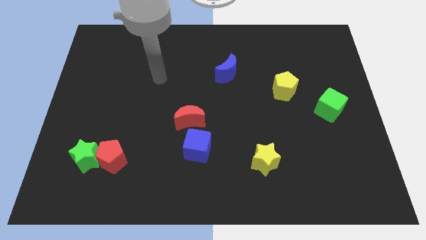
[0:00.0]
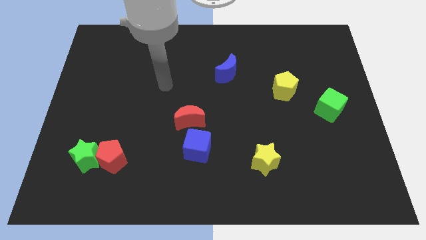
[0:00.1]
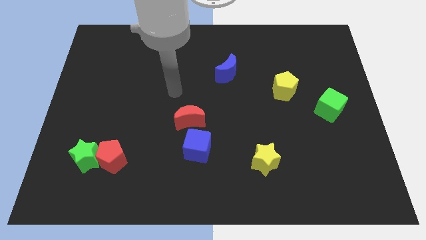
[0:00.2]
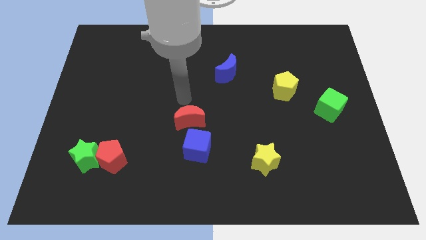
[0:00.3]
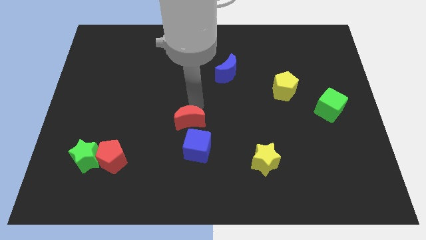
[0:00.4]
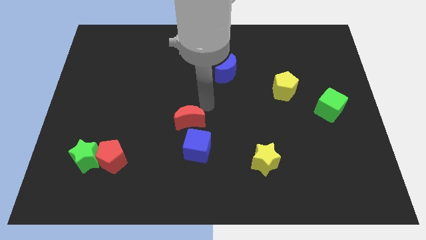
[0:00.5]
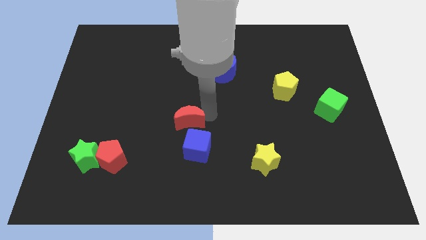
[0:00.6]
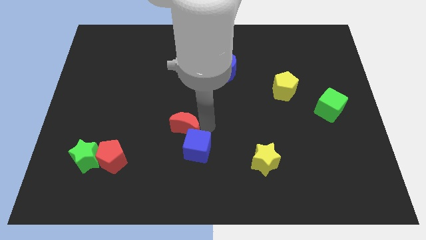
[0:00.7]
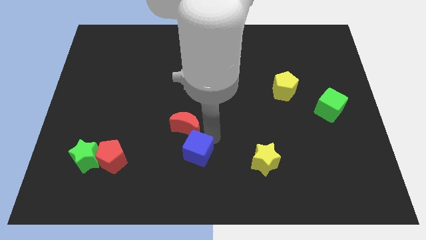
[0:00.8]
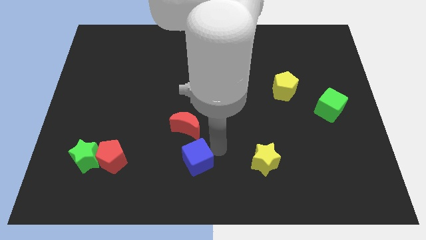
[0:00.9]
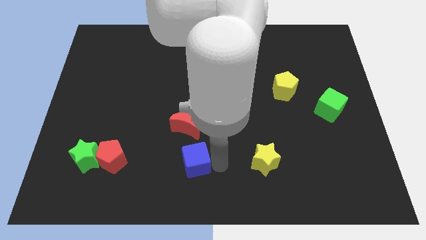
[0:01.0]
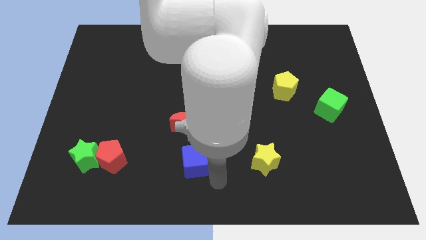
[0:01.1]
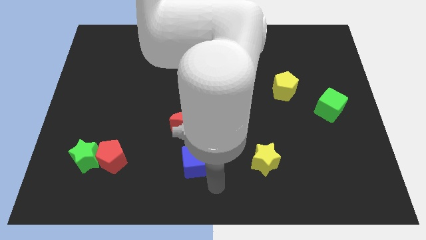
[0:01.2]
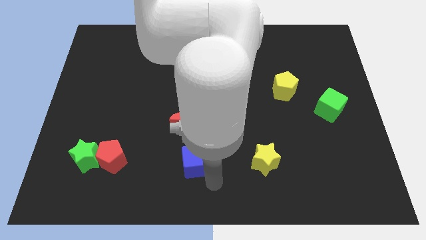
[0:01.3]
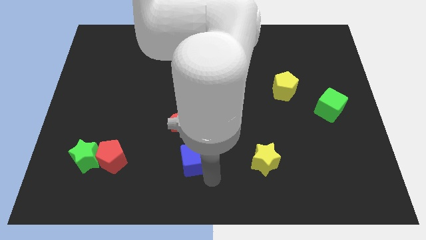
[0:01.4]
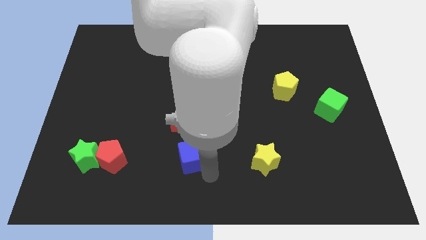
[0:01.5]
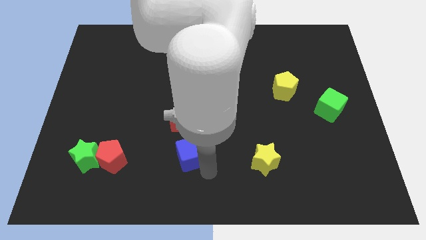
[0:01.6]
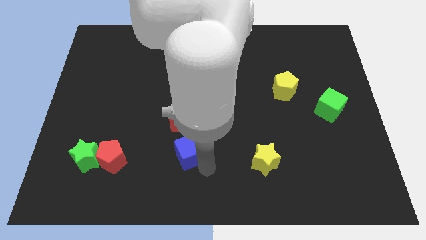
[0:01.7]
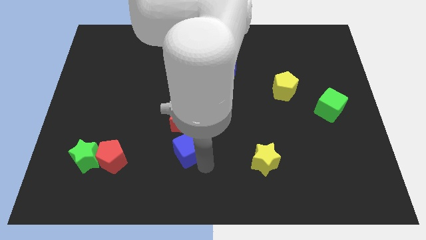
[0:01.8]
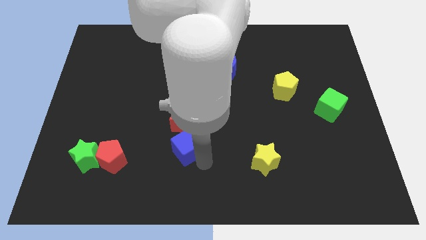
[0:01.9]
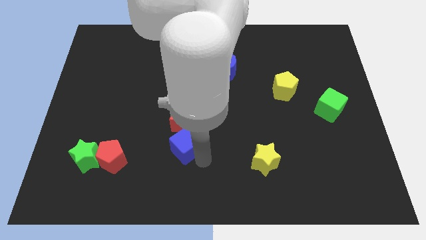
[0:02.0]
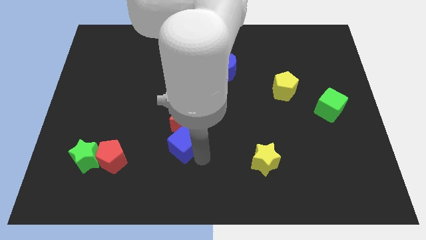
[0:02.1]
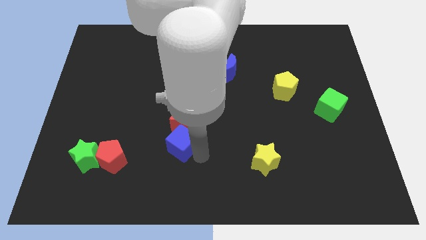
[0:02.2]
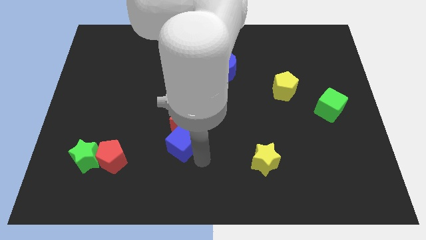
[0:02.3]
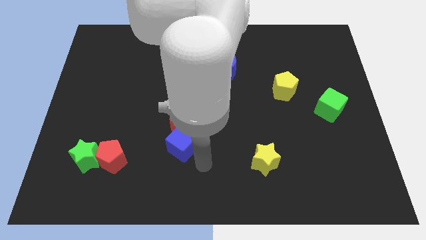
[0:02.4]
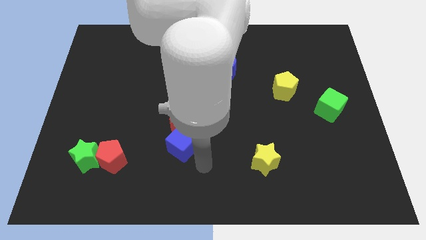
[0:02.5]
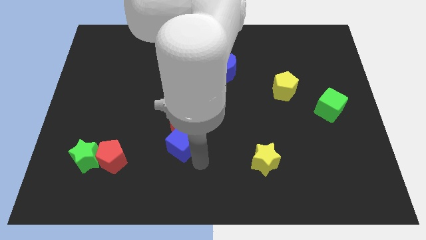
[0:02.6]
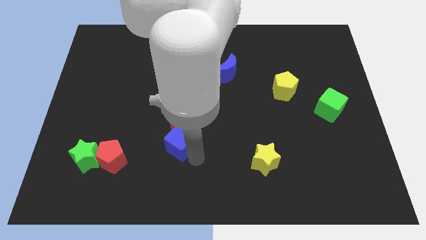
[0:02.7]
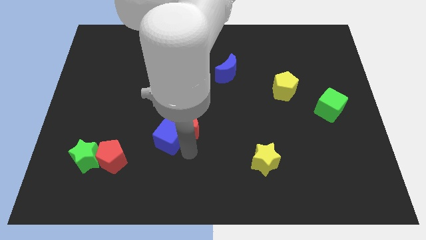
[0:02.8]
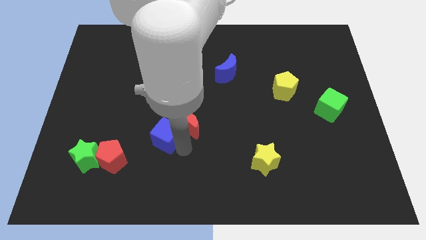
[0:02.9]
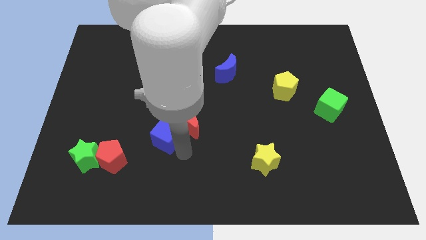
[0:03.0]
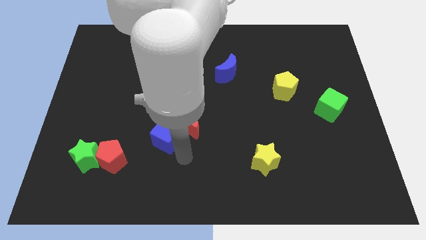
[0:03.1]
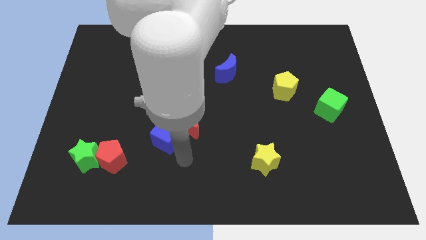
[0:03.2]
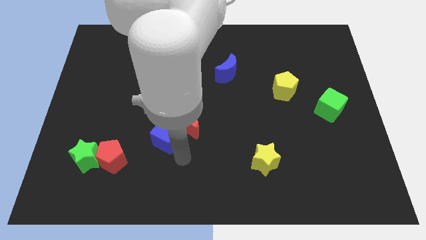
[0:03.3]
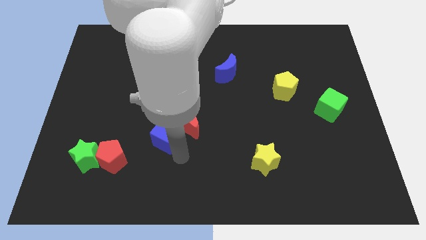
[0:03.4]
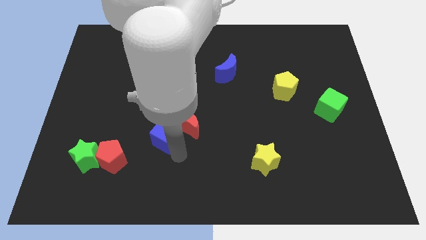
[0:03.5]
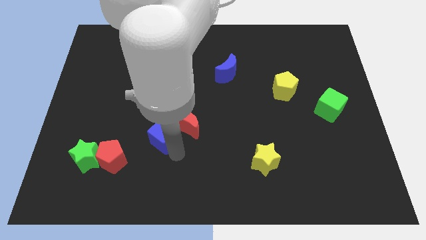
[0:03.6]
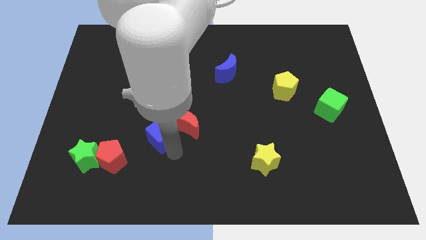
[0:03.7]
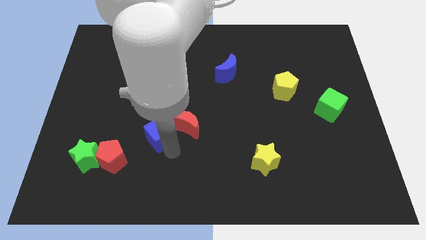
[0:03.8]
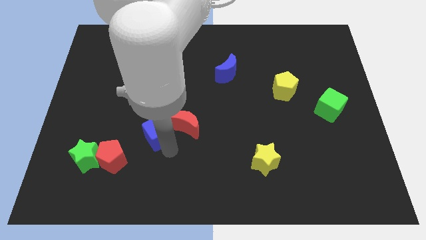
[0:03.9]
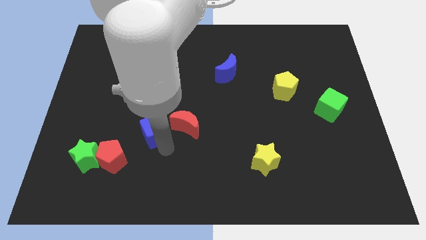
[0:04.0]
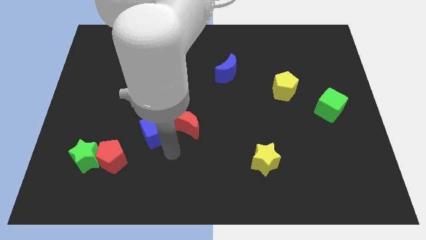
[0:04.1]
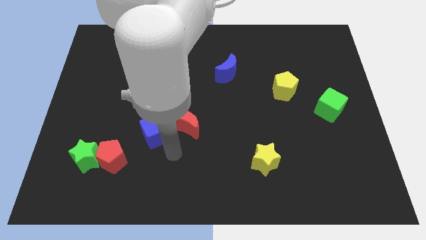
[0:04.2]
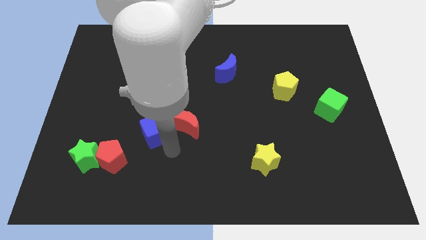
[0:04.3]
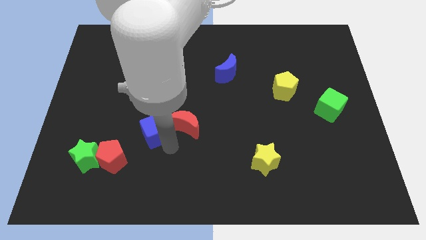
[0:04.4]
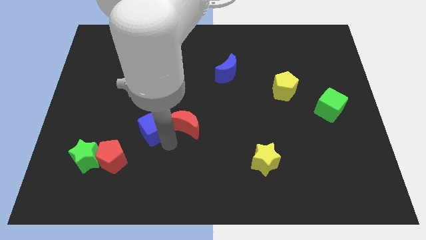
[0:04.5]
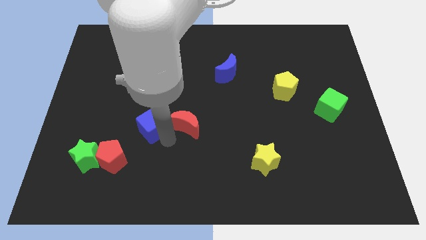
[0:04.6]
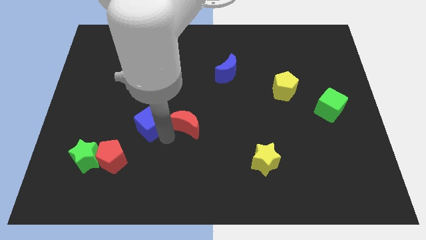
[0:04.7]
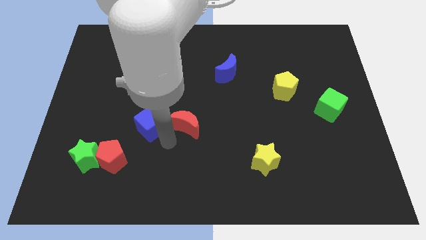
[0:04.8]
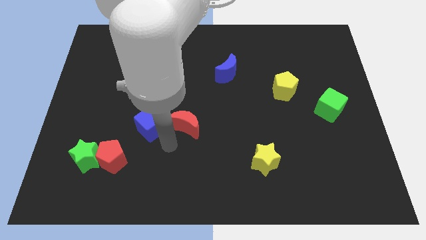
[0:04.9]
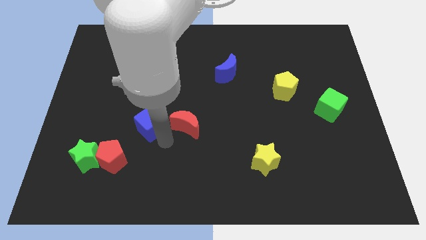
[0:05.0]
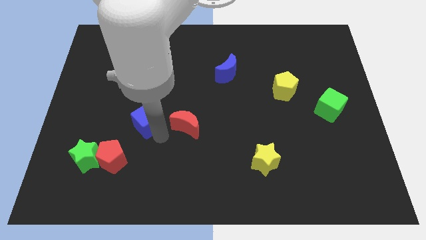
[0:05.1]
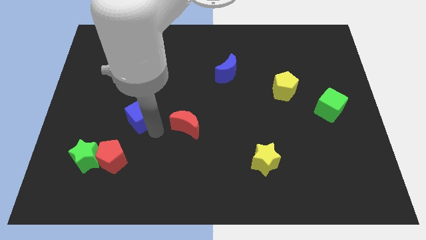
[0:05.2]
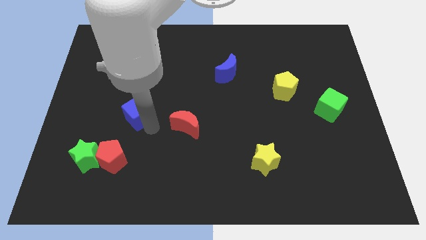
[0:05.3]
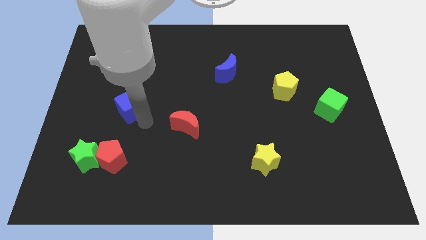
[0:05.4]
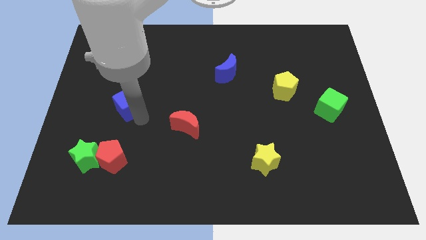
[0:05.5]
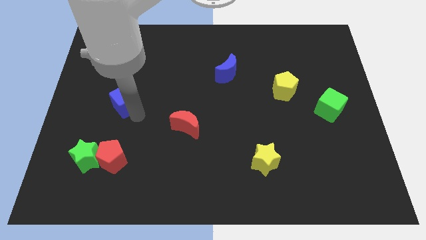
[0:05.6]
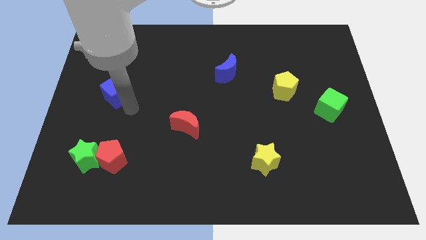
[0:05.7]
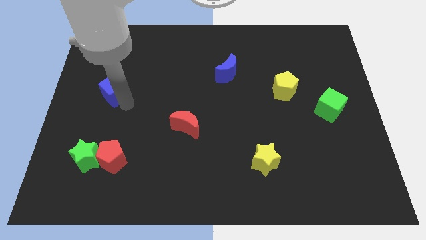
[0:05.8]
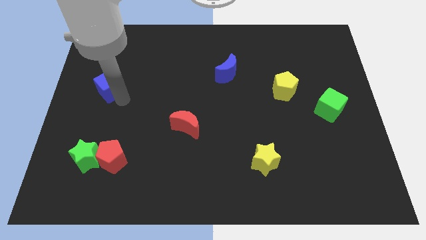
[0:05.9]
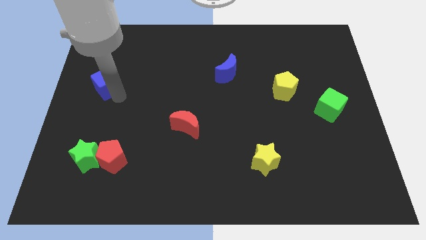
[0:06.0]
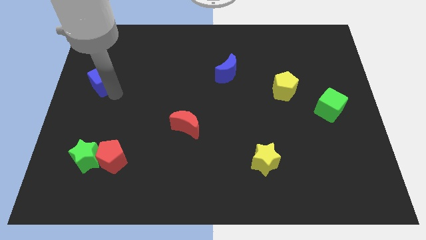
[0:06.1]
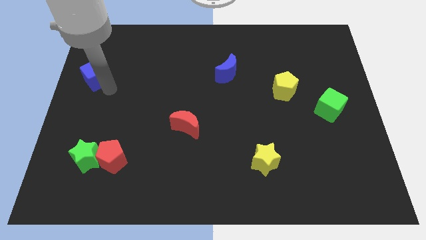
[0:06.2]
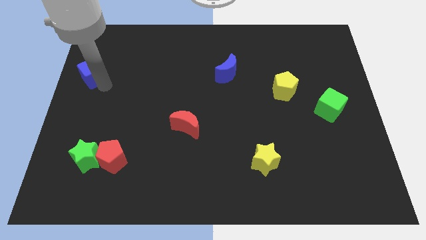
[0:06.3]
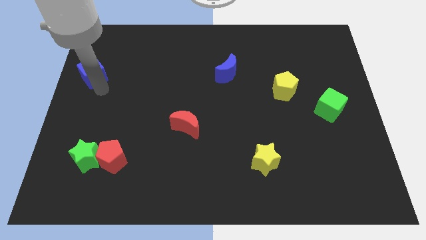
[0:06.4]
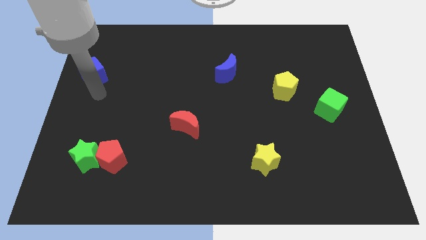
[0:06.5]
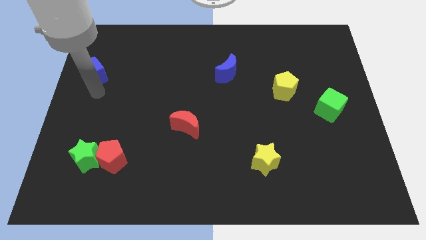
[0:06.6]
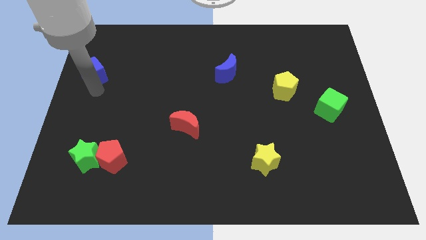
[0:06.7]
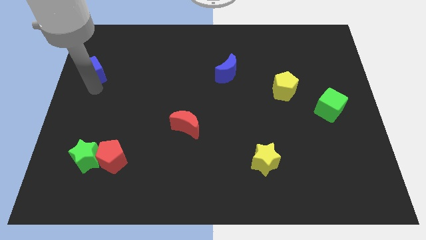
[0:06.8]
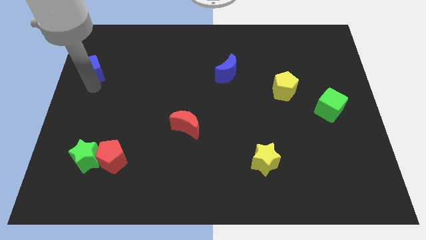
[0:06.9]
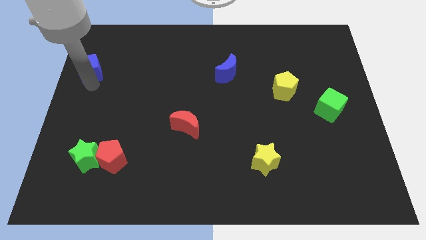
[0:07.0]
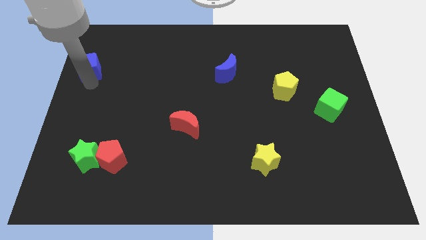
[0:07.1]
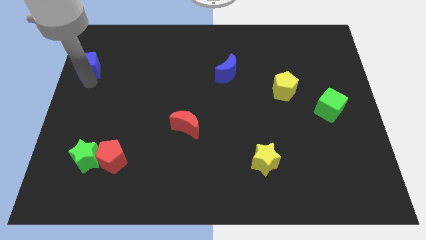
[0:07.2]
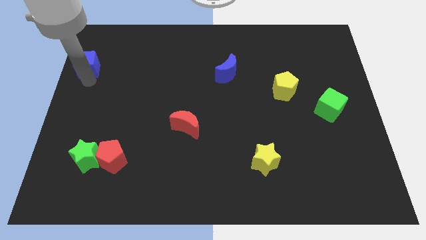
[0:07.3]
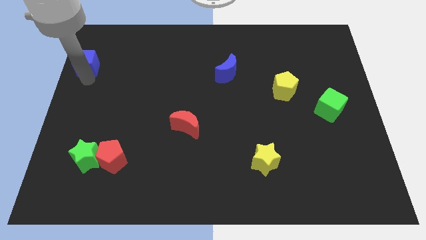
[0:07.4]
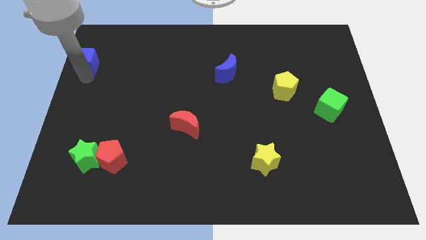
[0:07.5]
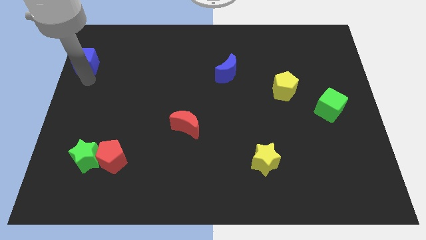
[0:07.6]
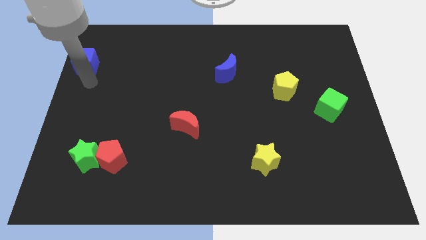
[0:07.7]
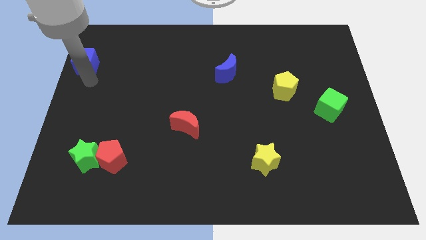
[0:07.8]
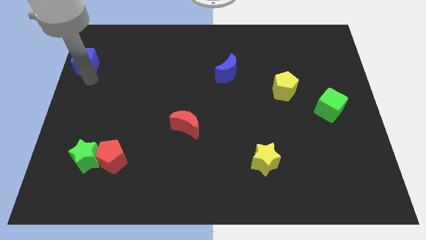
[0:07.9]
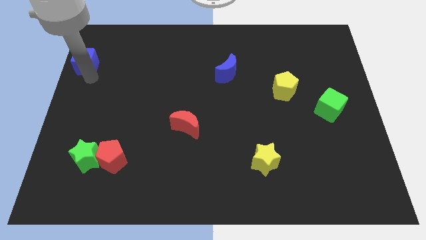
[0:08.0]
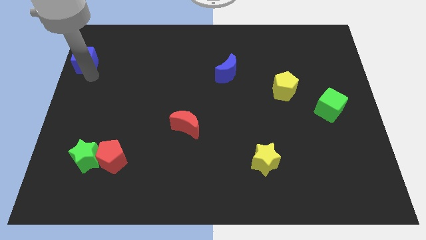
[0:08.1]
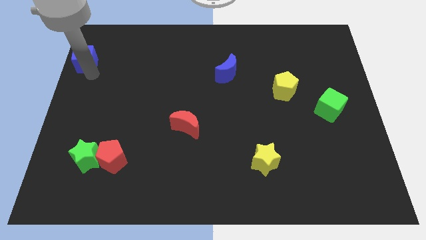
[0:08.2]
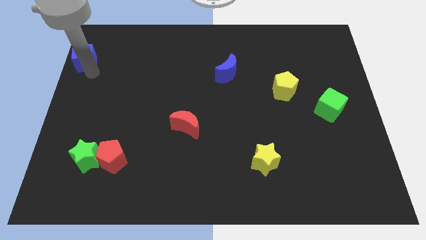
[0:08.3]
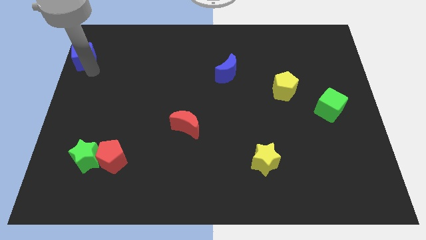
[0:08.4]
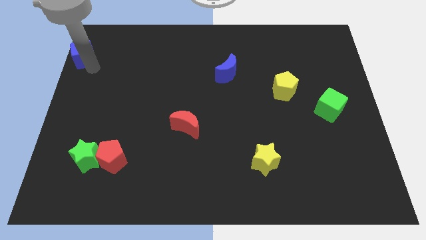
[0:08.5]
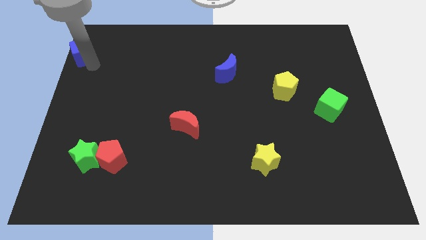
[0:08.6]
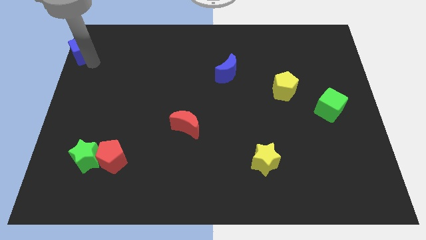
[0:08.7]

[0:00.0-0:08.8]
put the blue cube to the top left corner
